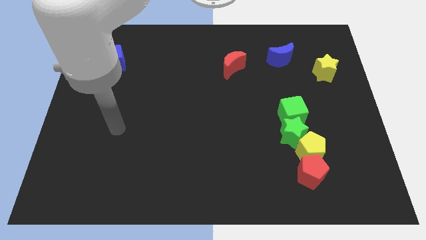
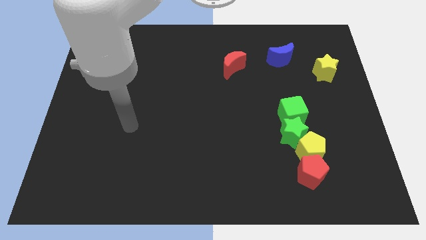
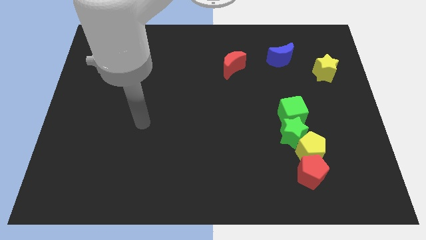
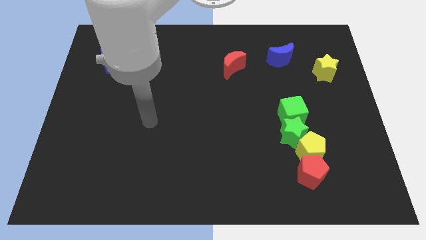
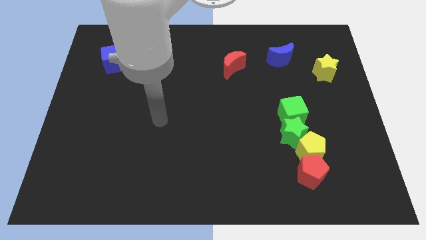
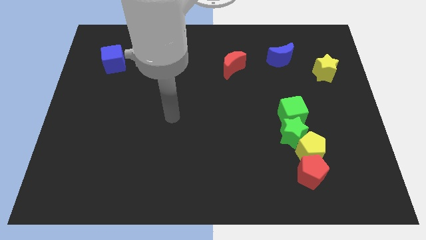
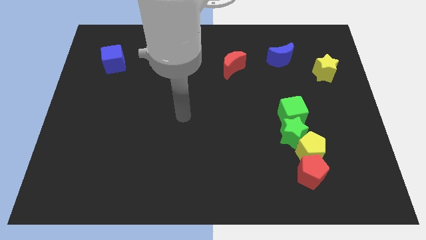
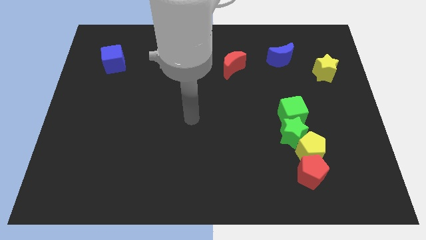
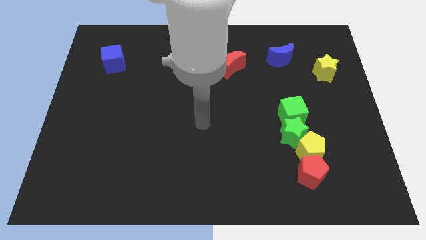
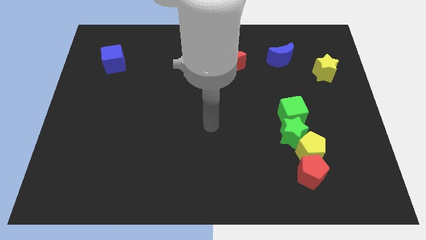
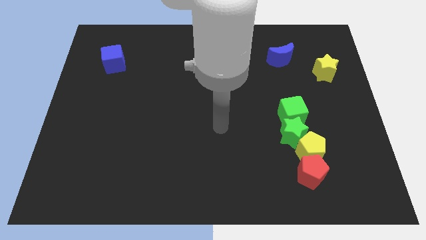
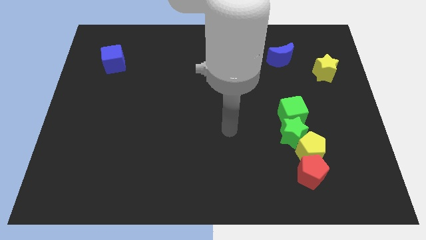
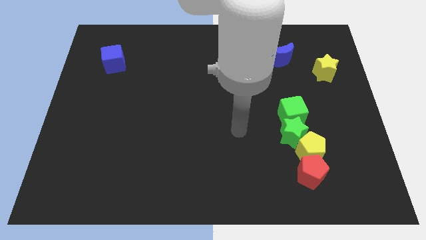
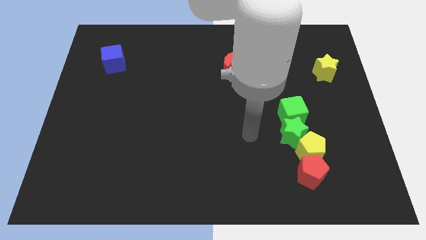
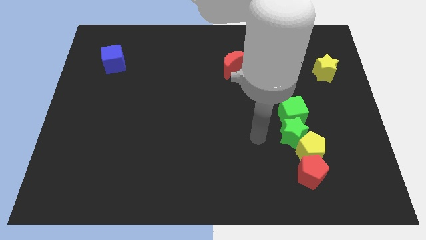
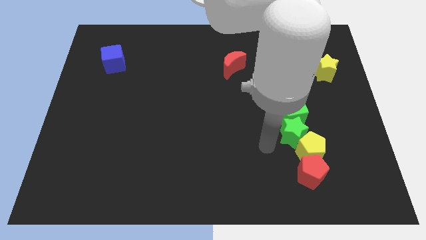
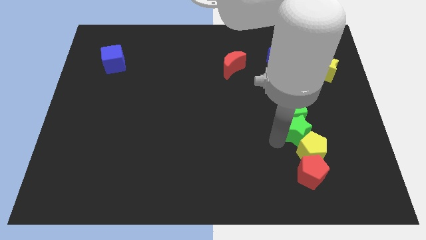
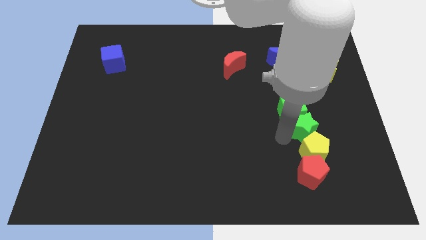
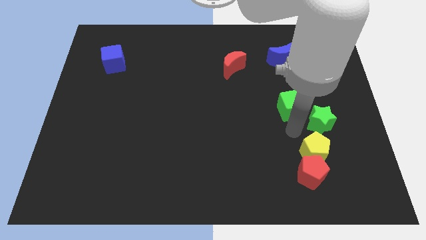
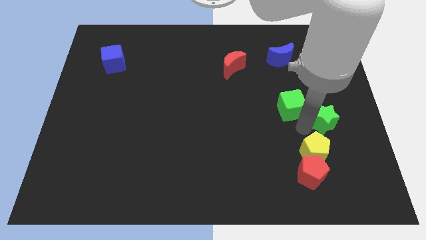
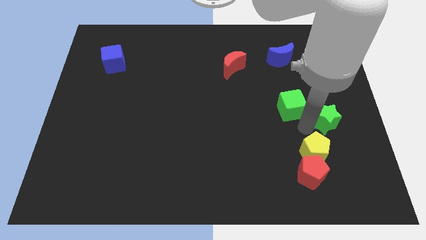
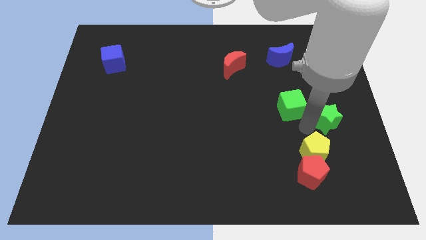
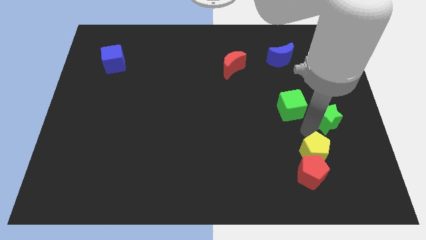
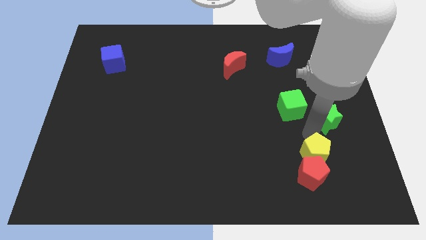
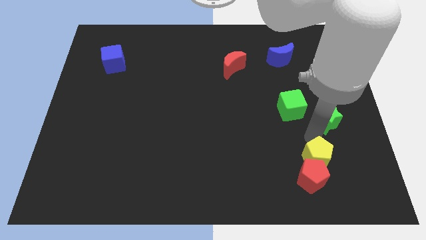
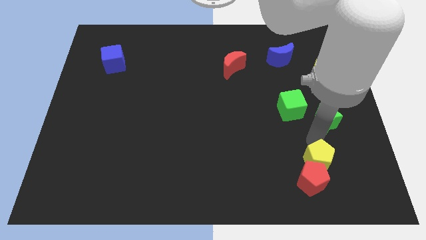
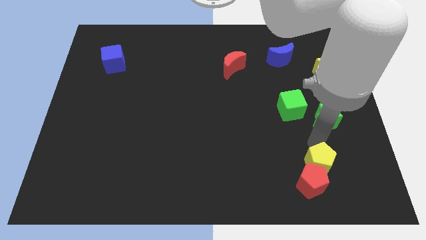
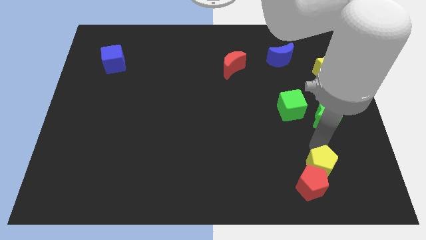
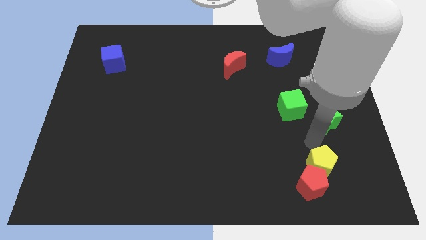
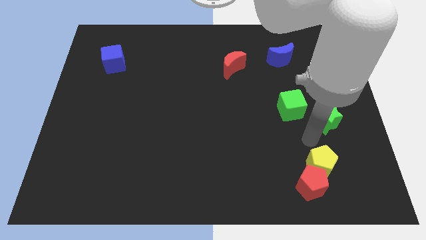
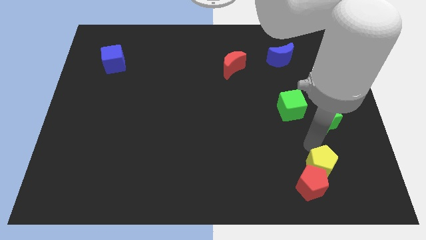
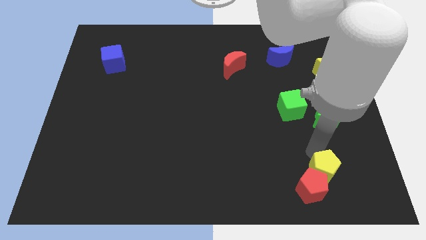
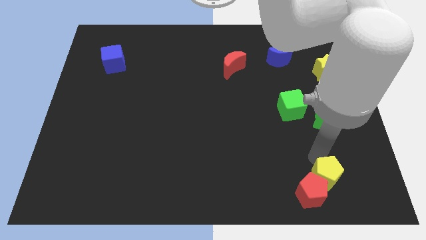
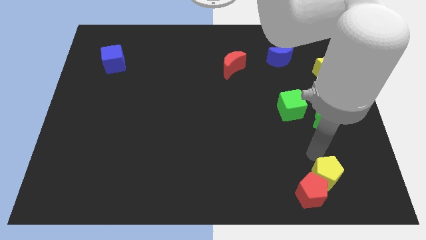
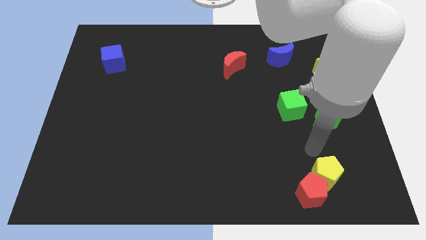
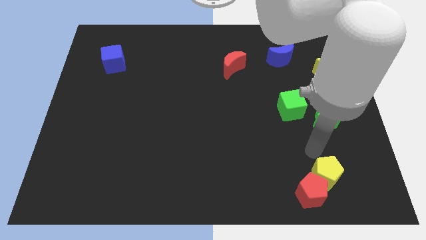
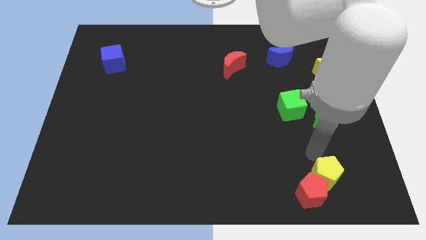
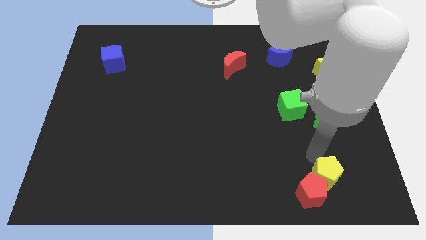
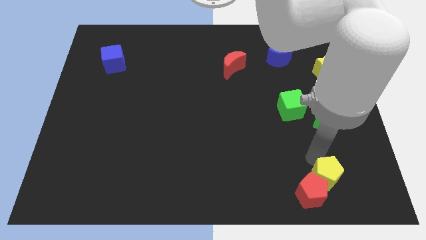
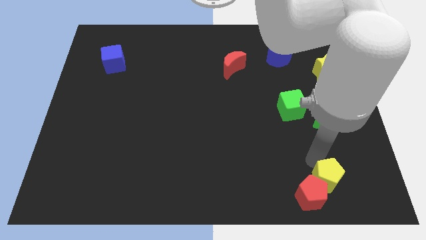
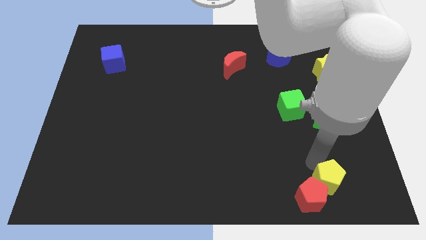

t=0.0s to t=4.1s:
pull the yellow pentagon apart from the group of blocks

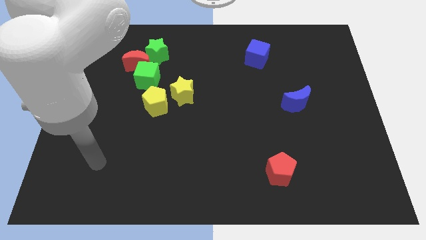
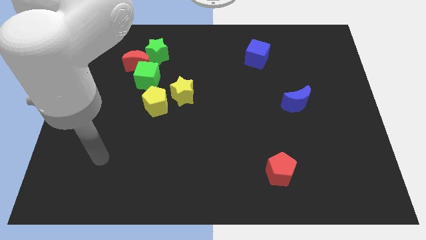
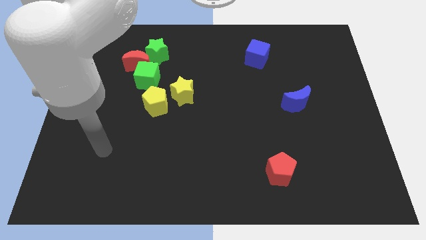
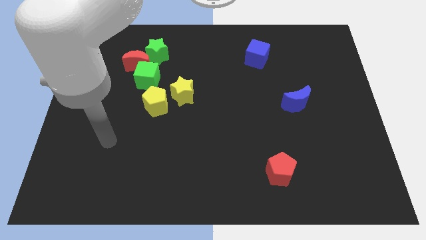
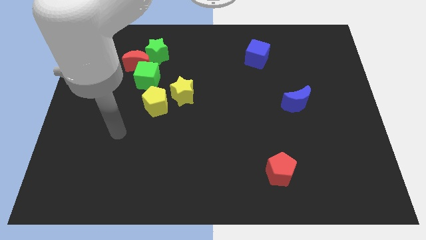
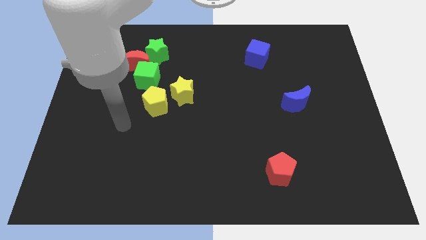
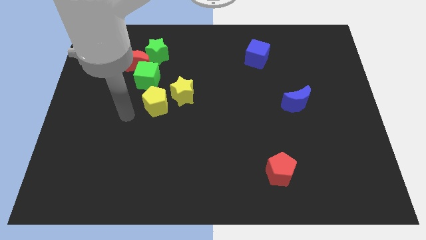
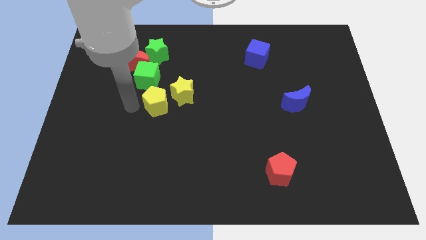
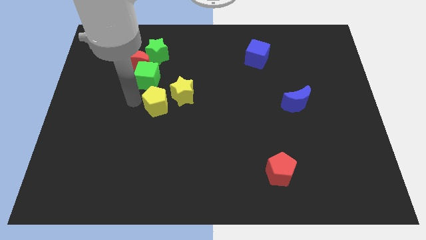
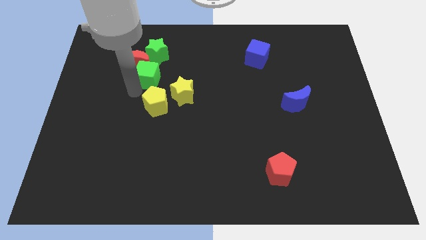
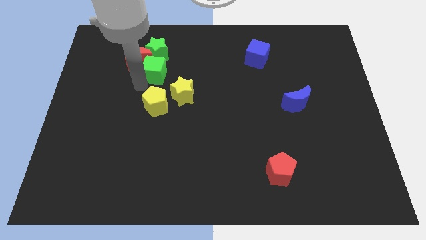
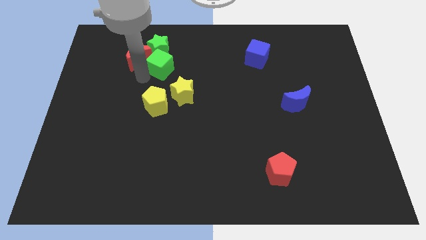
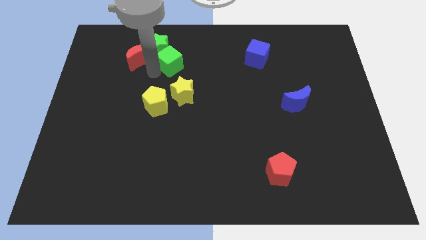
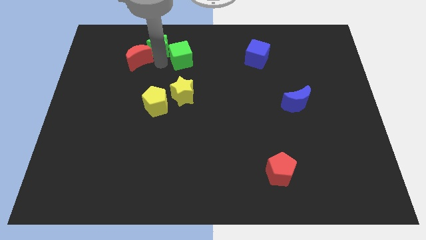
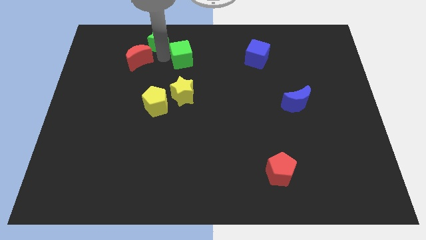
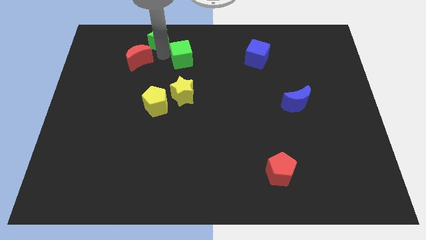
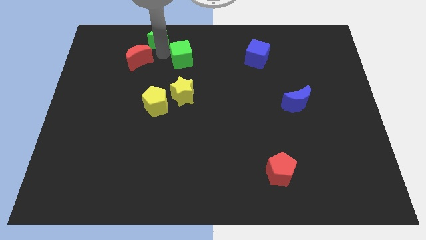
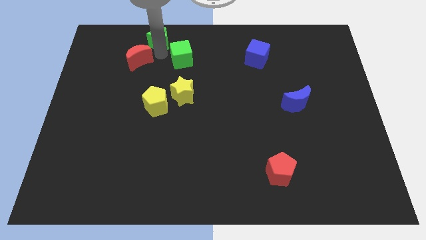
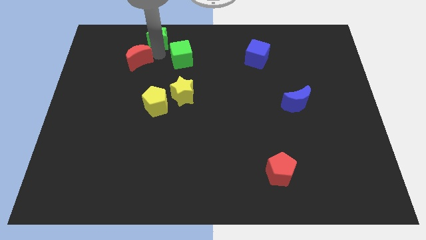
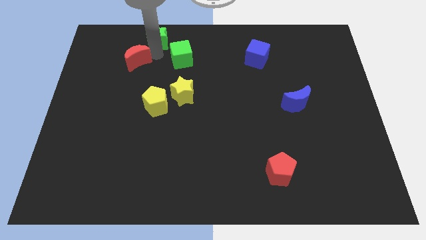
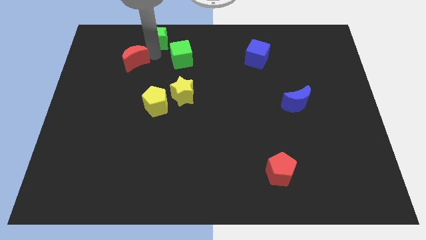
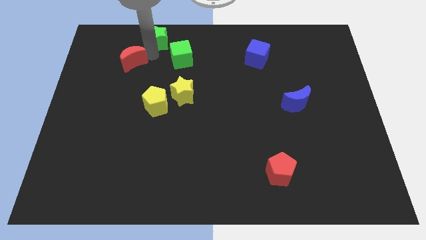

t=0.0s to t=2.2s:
separate the red moon from the green star and green cube

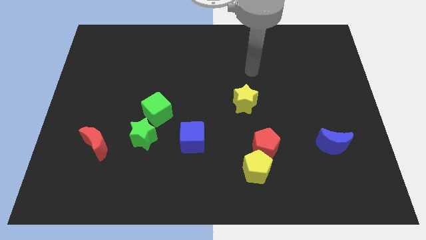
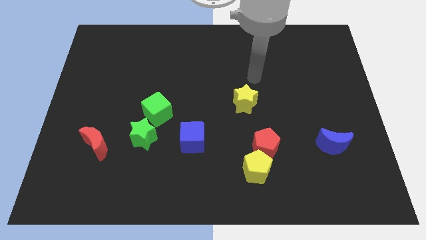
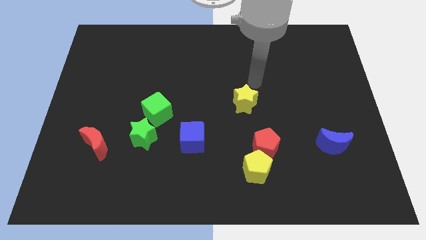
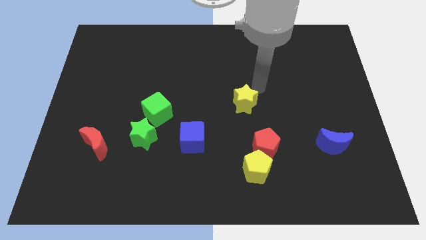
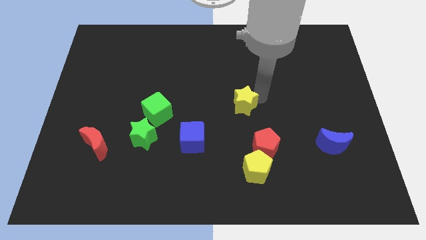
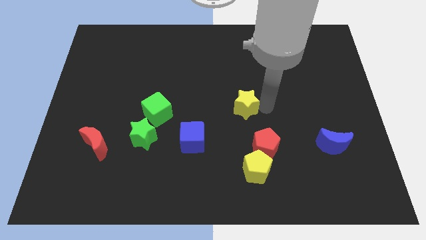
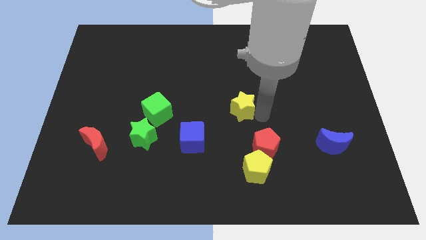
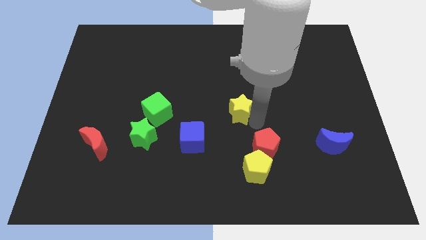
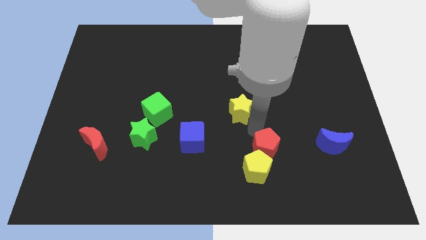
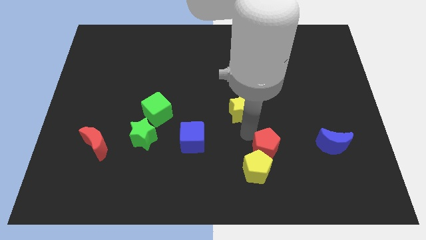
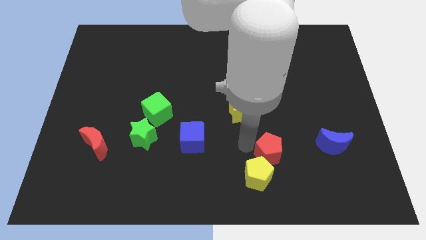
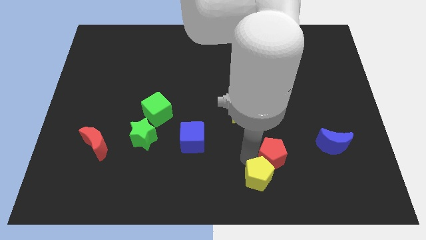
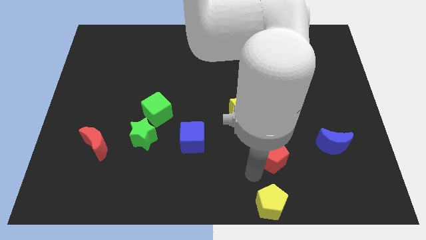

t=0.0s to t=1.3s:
separate the red pentagon from the yellow pentagon

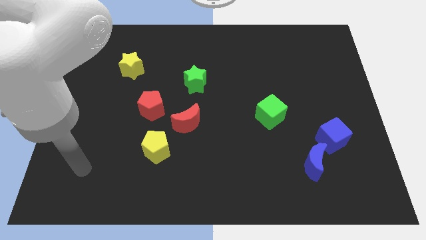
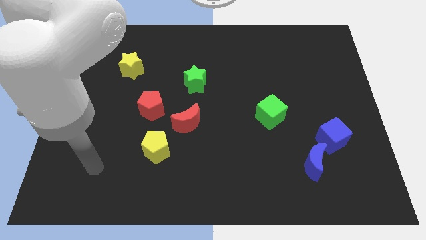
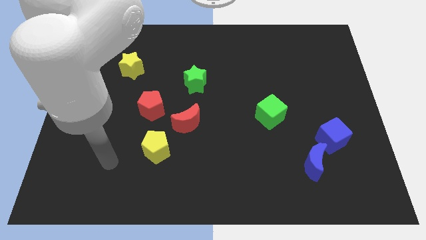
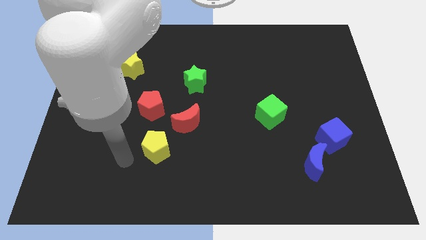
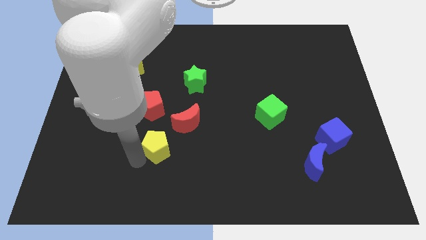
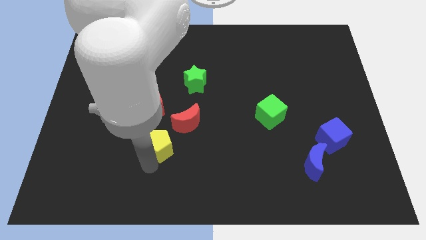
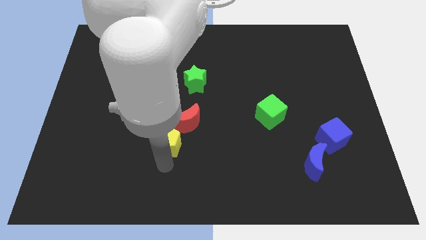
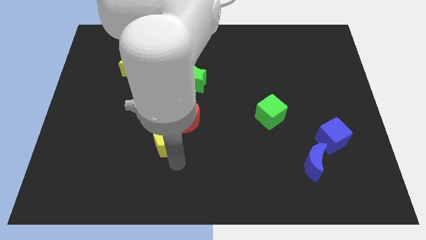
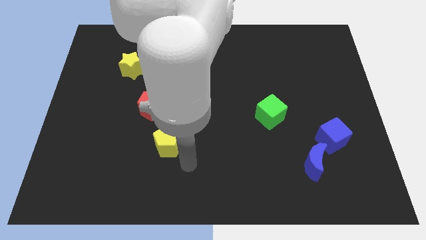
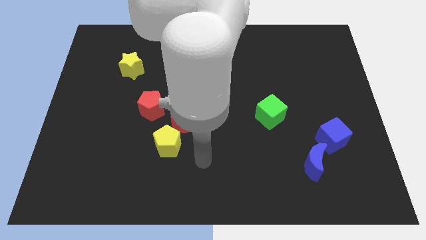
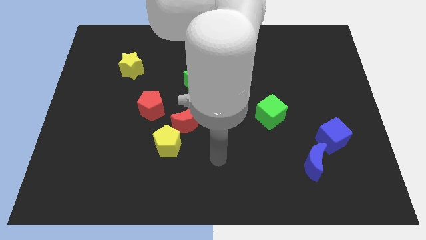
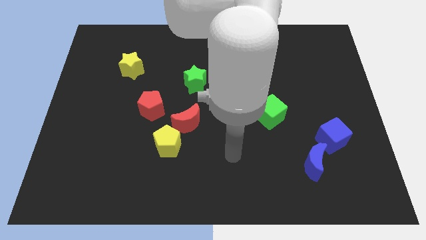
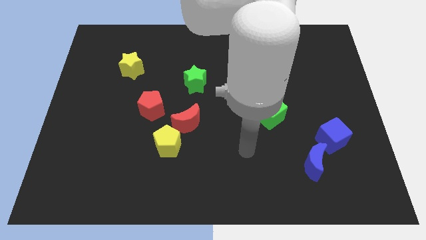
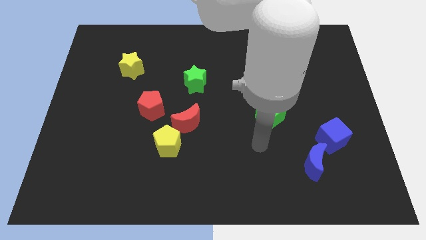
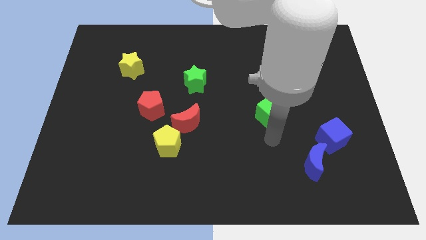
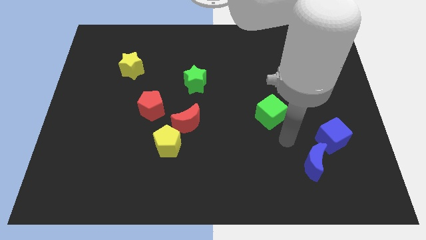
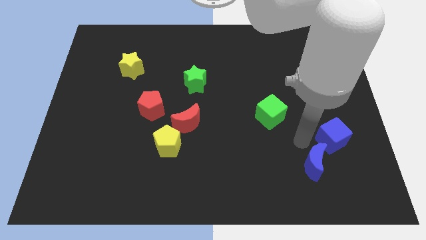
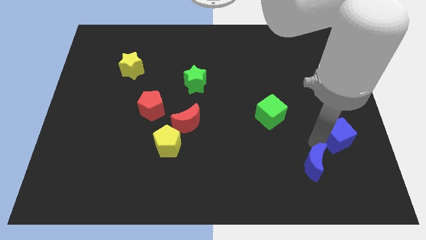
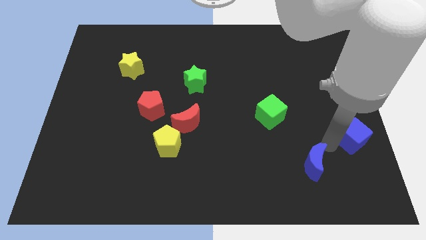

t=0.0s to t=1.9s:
pull the blue moon apart from the blue cube
